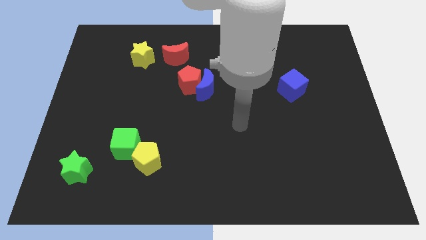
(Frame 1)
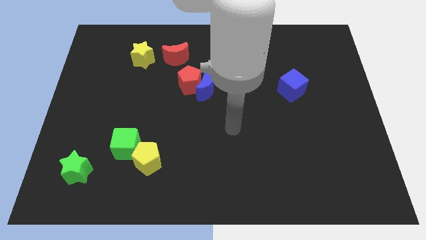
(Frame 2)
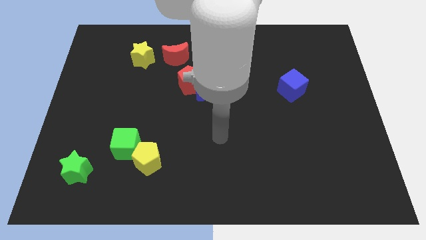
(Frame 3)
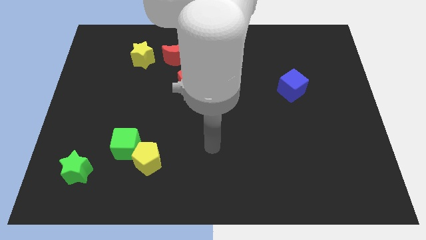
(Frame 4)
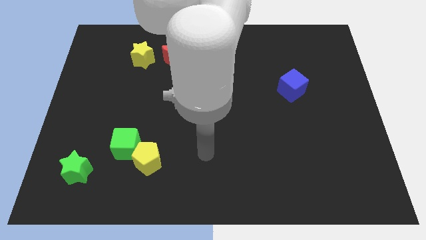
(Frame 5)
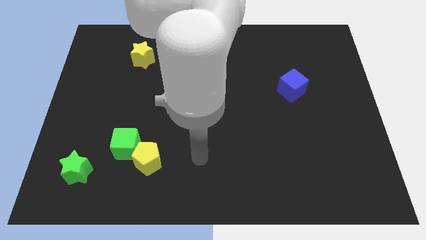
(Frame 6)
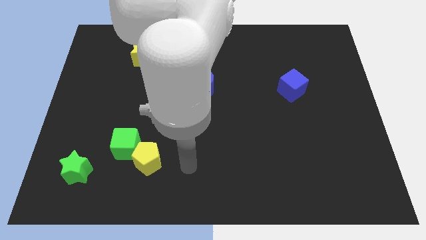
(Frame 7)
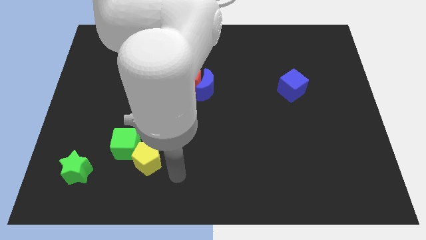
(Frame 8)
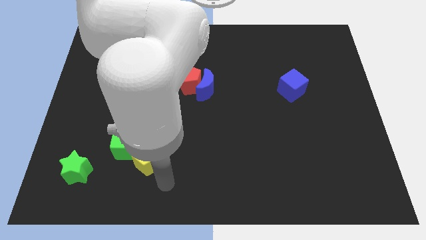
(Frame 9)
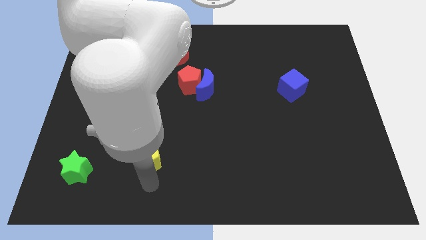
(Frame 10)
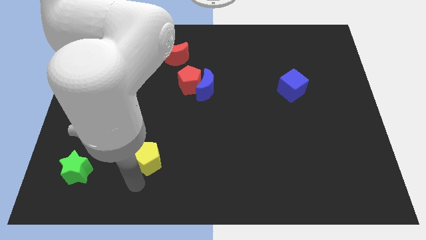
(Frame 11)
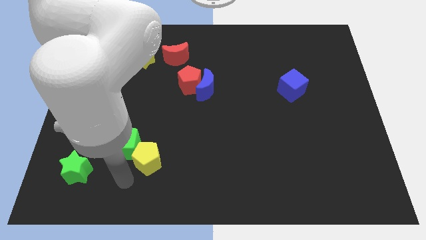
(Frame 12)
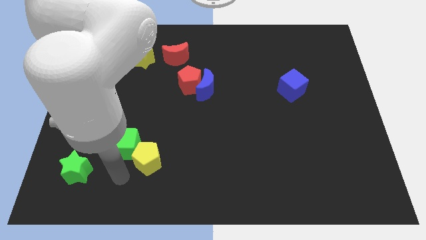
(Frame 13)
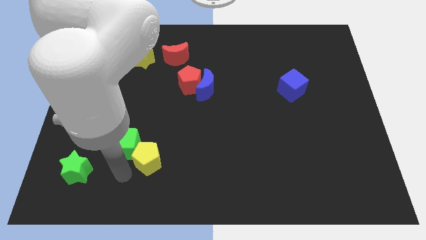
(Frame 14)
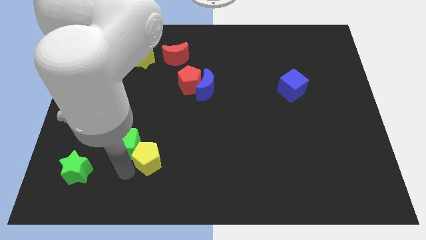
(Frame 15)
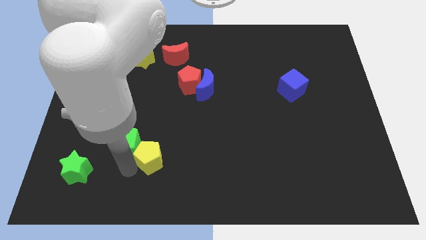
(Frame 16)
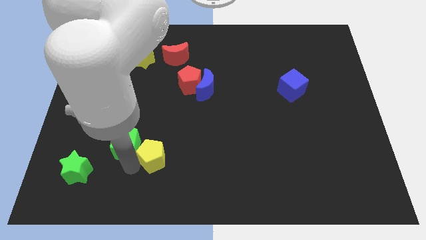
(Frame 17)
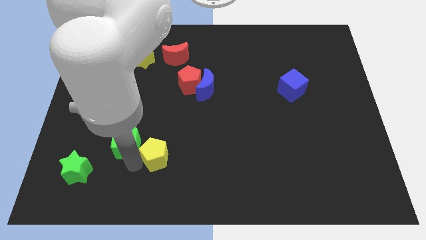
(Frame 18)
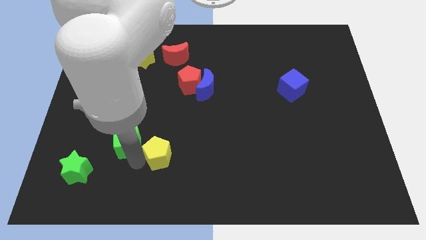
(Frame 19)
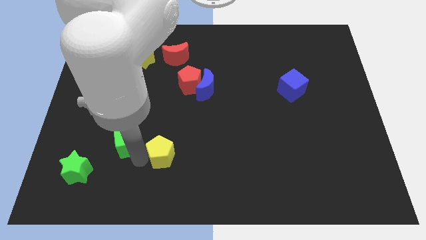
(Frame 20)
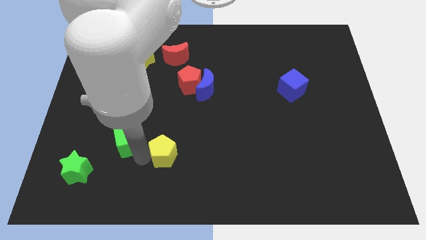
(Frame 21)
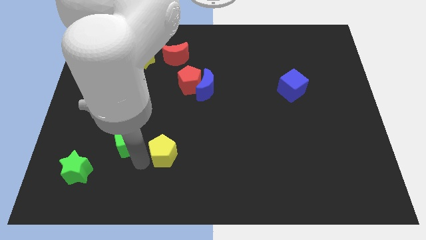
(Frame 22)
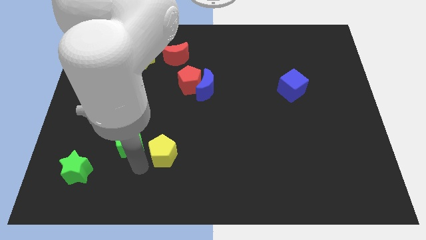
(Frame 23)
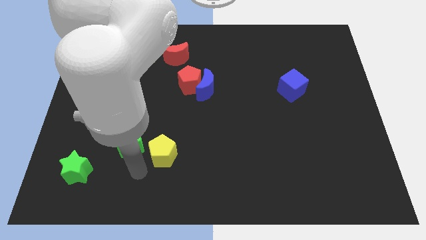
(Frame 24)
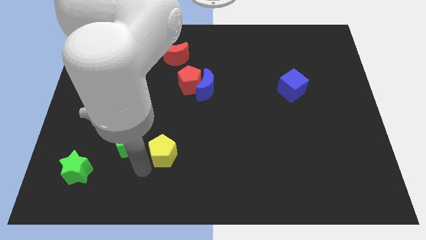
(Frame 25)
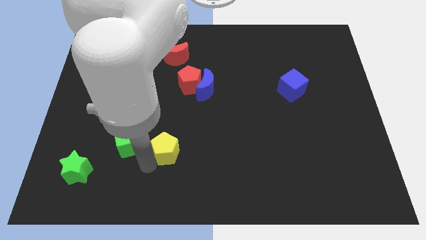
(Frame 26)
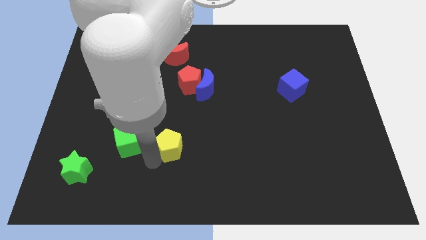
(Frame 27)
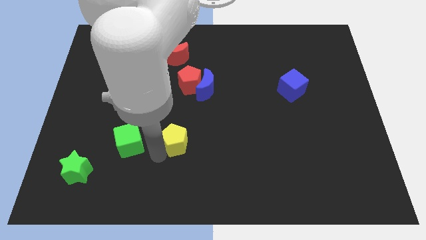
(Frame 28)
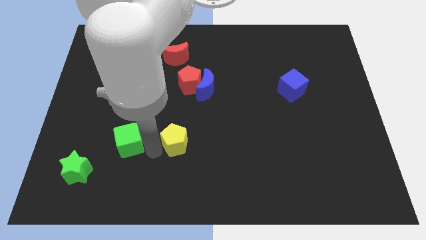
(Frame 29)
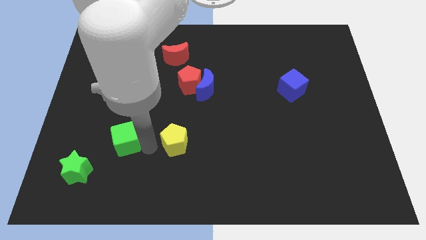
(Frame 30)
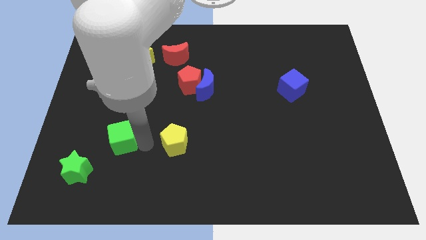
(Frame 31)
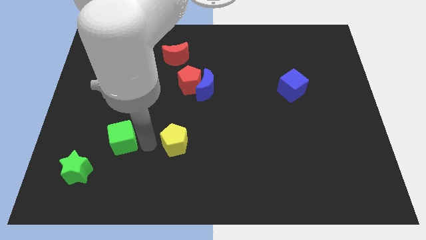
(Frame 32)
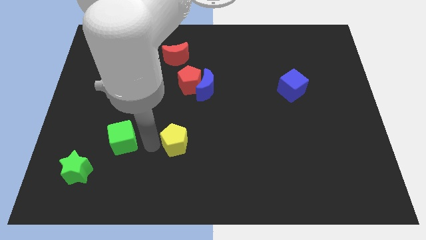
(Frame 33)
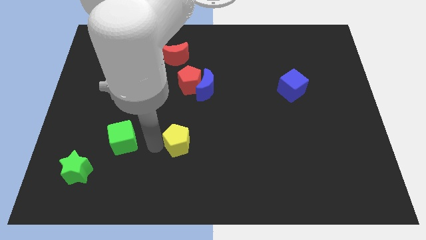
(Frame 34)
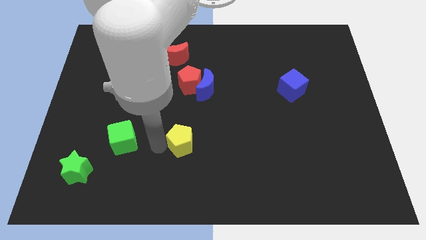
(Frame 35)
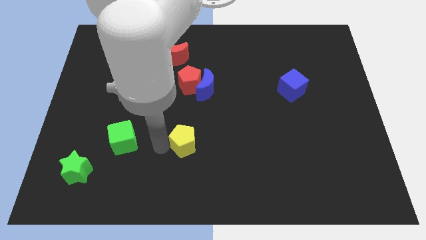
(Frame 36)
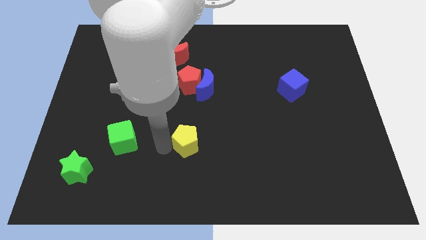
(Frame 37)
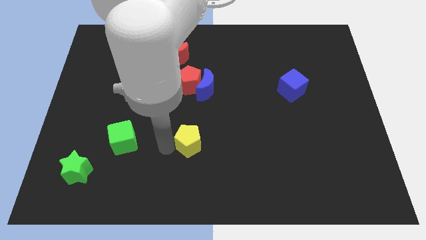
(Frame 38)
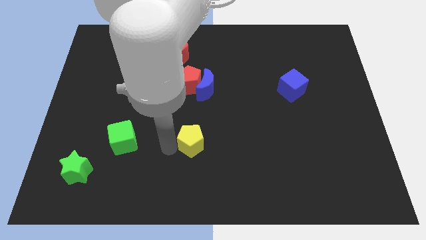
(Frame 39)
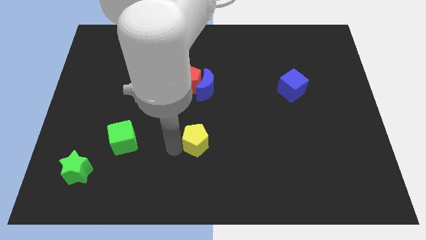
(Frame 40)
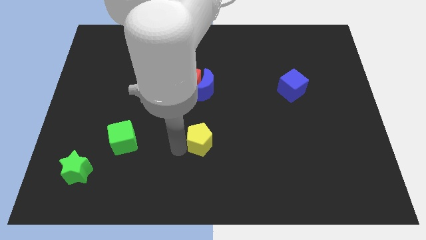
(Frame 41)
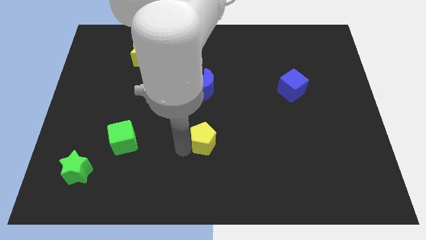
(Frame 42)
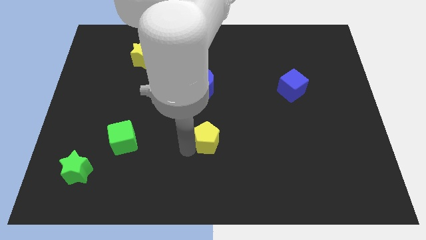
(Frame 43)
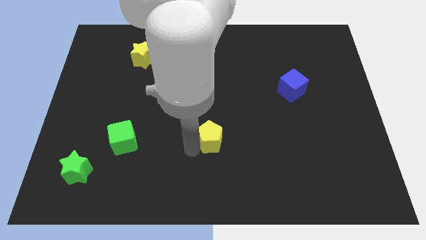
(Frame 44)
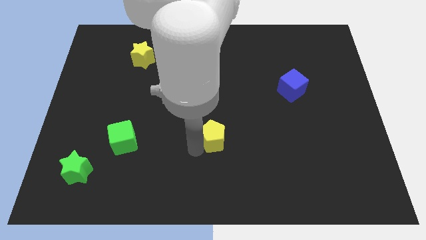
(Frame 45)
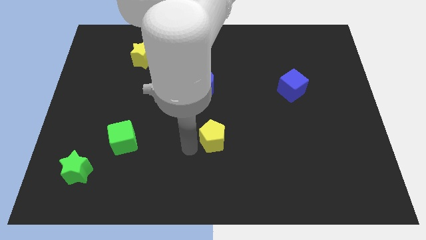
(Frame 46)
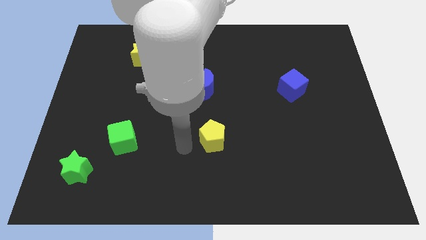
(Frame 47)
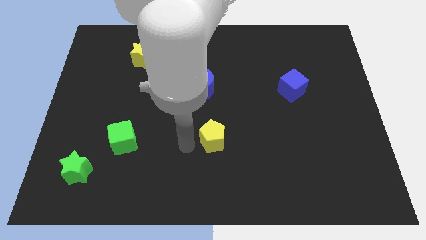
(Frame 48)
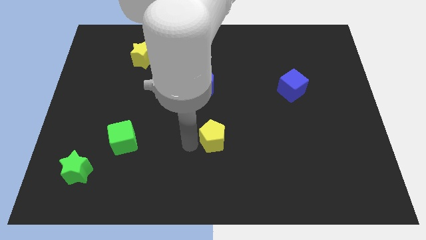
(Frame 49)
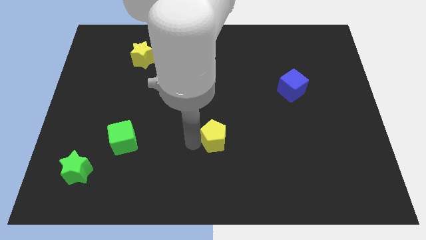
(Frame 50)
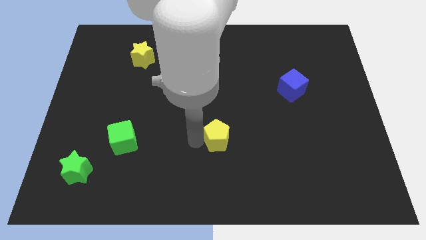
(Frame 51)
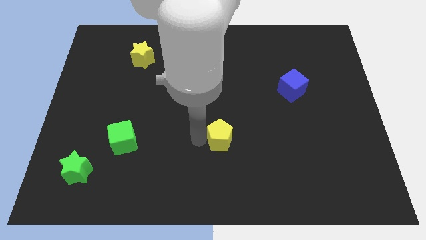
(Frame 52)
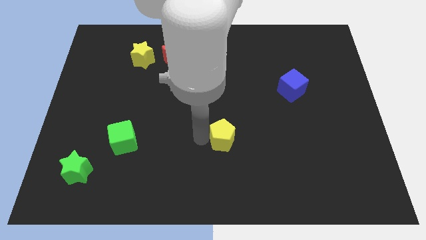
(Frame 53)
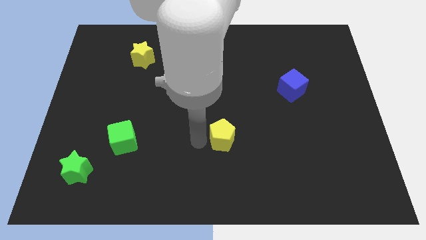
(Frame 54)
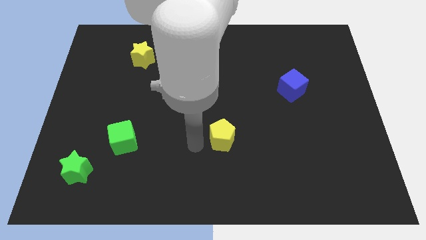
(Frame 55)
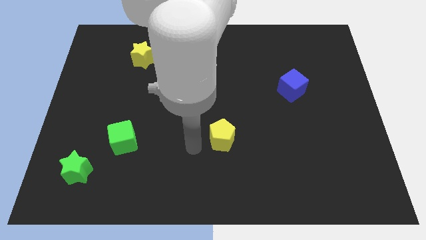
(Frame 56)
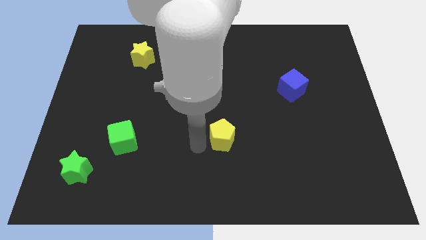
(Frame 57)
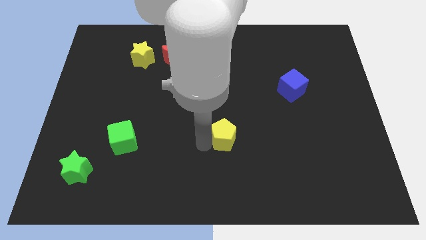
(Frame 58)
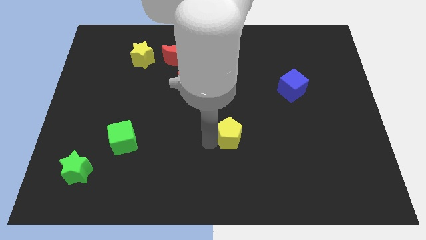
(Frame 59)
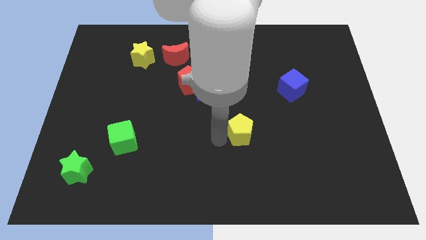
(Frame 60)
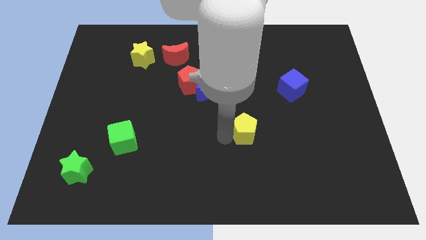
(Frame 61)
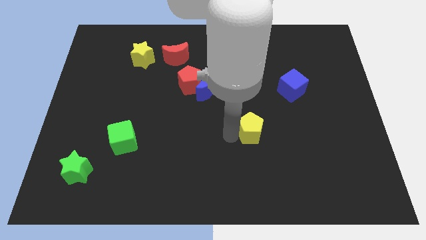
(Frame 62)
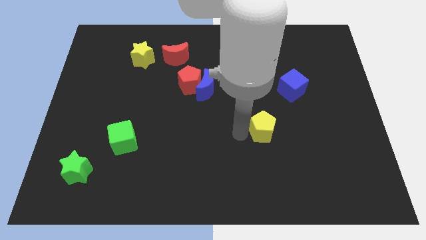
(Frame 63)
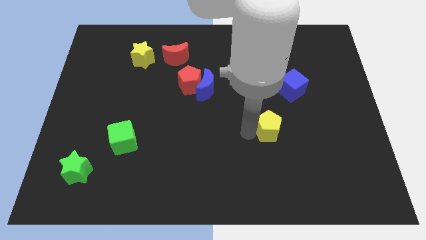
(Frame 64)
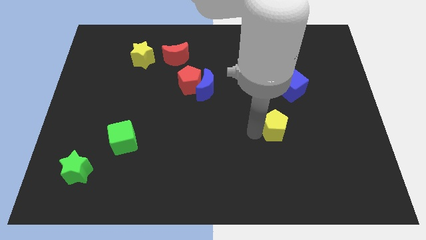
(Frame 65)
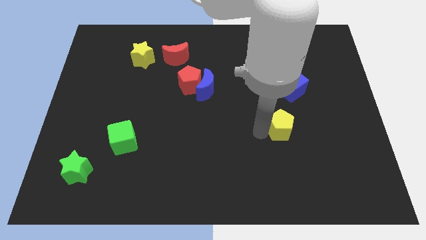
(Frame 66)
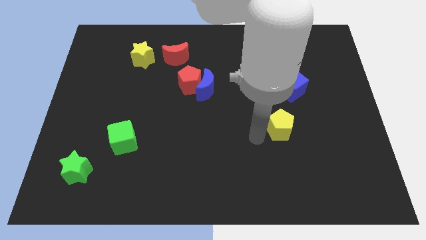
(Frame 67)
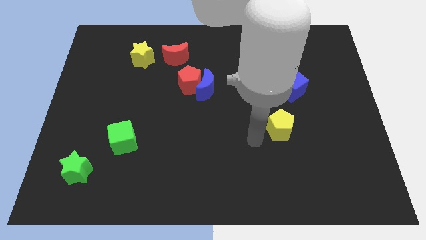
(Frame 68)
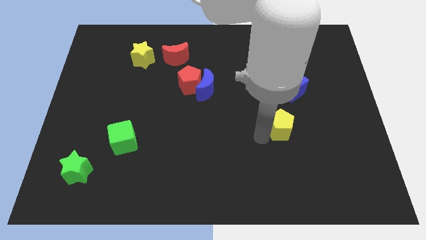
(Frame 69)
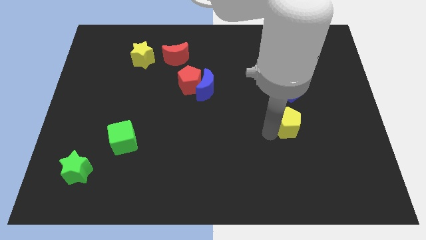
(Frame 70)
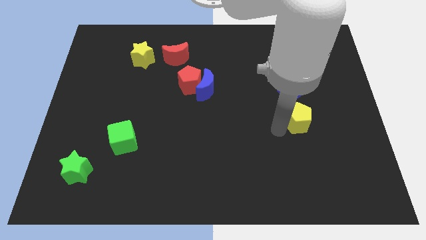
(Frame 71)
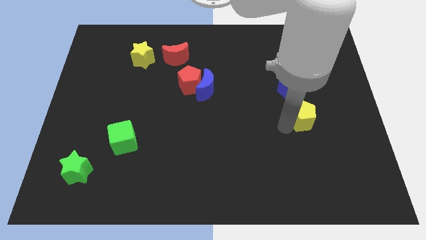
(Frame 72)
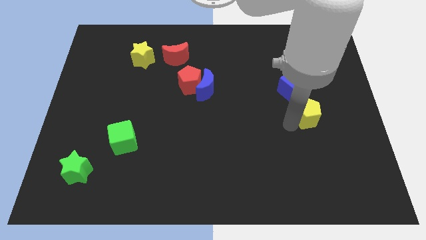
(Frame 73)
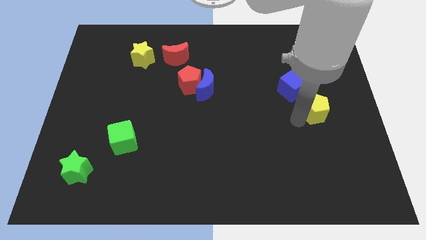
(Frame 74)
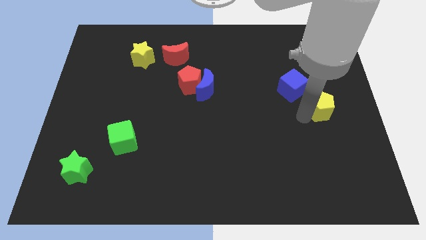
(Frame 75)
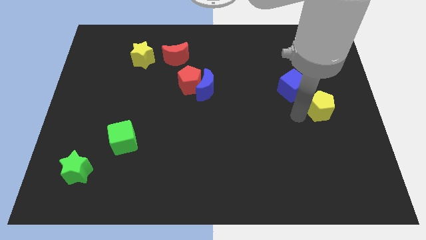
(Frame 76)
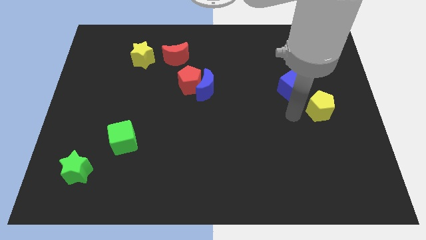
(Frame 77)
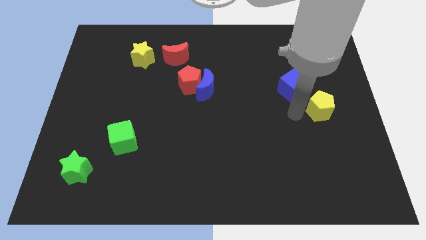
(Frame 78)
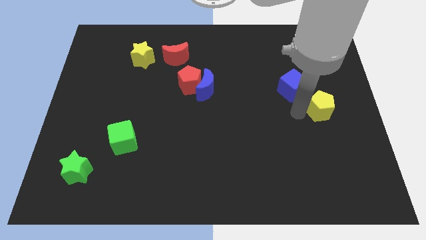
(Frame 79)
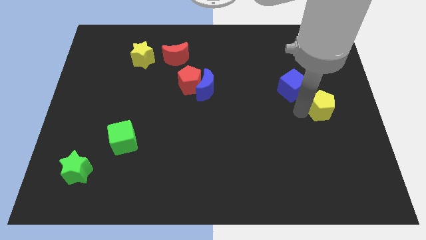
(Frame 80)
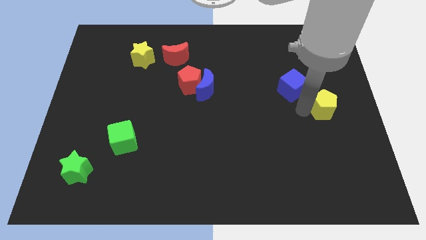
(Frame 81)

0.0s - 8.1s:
push the yellow pentagon to the center right

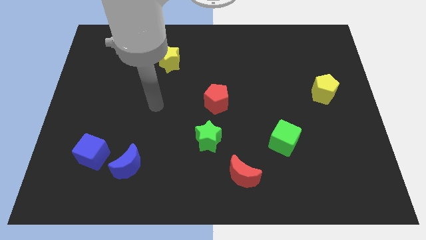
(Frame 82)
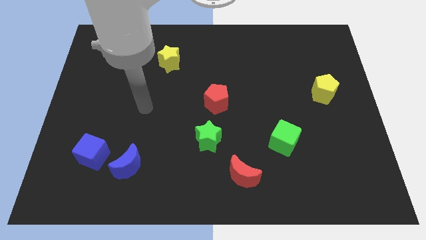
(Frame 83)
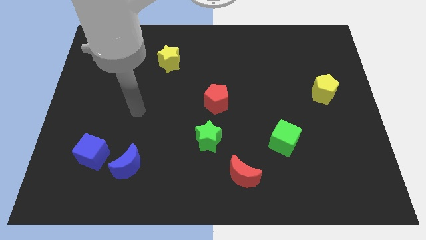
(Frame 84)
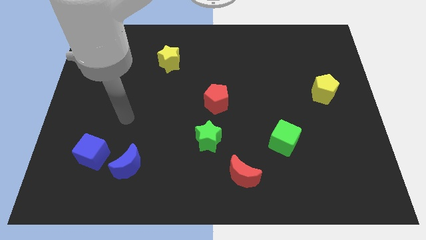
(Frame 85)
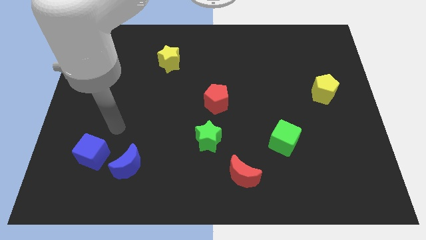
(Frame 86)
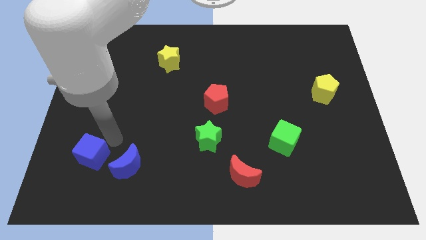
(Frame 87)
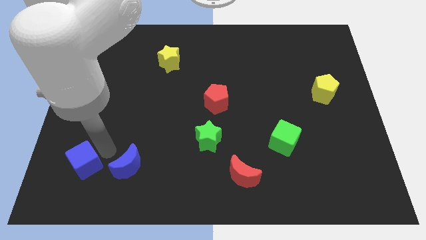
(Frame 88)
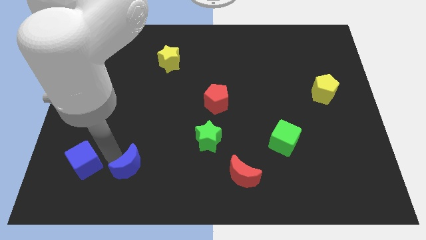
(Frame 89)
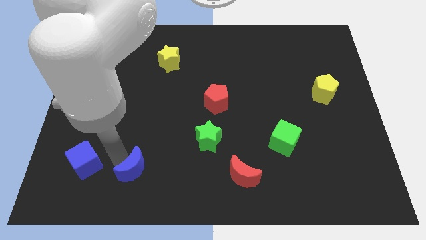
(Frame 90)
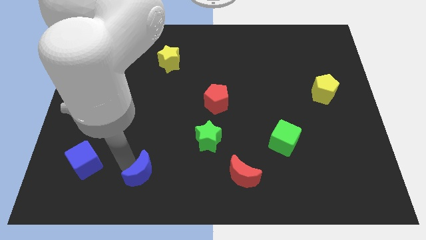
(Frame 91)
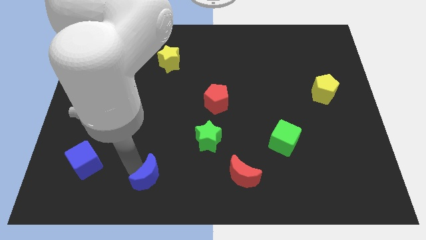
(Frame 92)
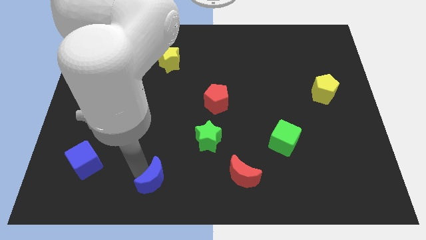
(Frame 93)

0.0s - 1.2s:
put the blue moon to the bottom side
